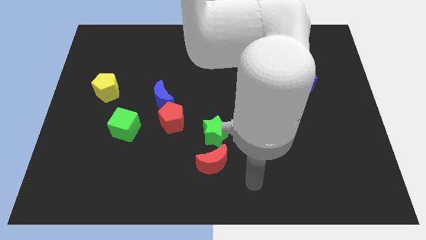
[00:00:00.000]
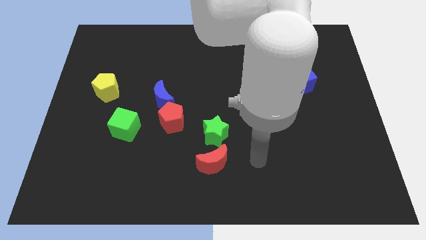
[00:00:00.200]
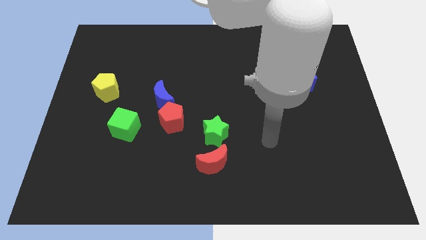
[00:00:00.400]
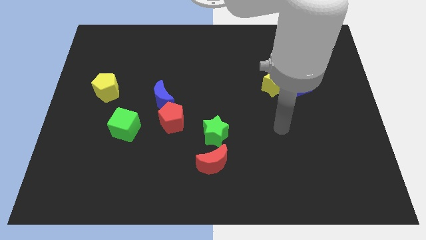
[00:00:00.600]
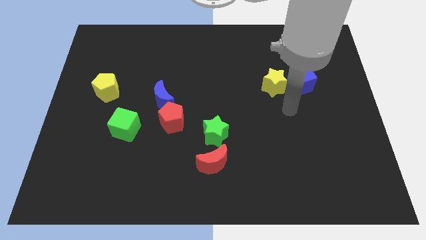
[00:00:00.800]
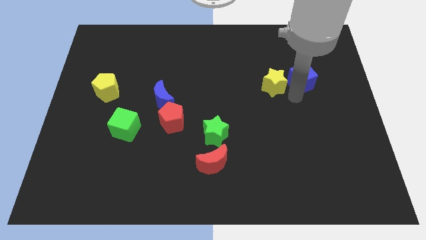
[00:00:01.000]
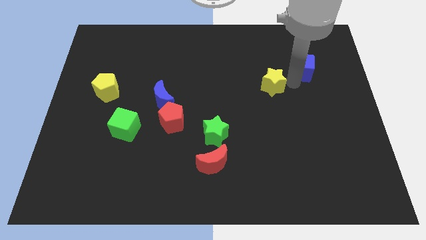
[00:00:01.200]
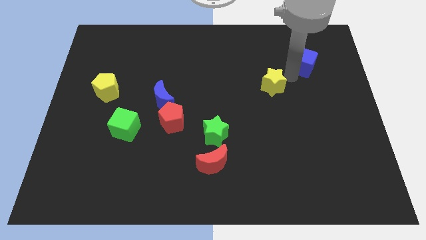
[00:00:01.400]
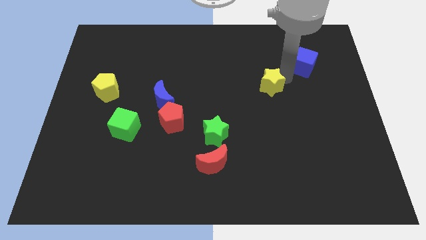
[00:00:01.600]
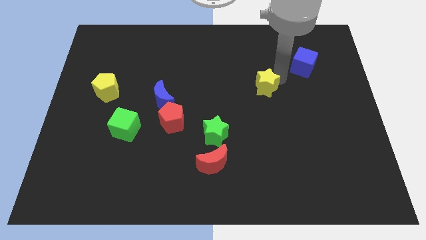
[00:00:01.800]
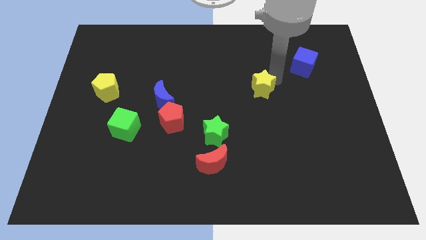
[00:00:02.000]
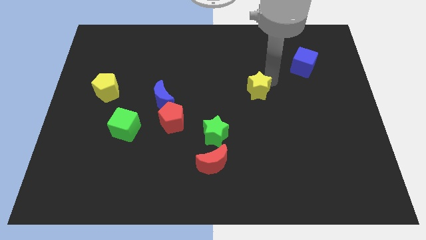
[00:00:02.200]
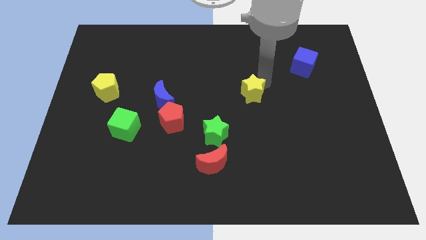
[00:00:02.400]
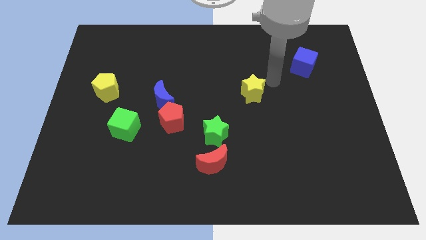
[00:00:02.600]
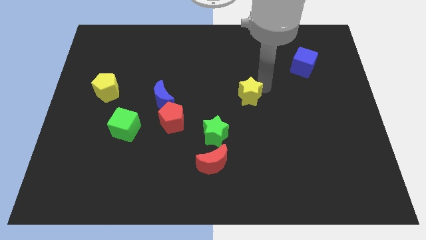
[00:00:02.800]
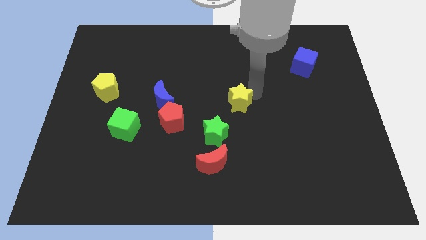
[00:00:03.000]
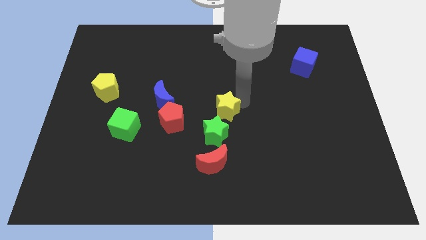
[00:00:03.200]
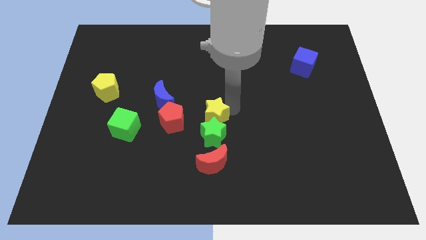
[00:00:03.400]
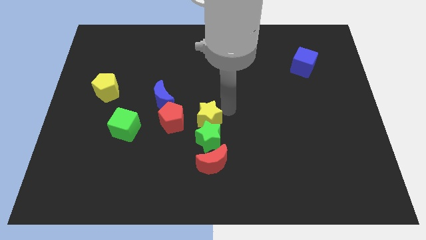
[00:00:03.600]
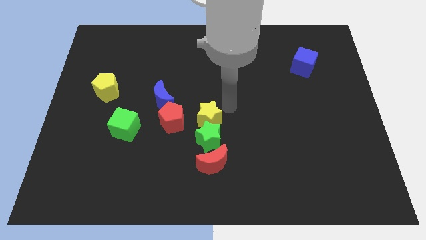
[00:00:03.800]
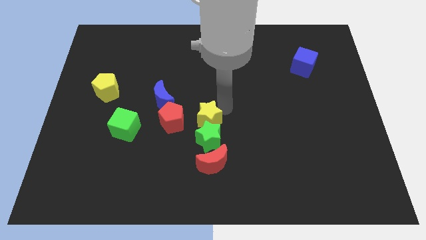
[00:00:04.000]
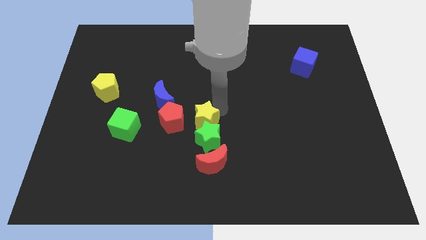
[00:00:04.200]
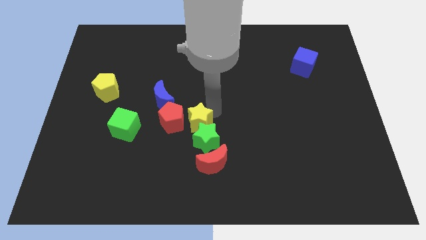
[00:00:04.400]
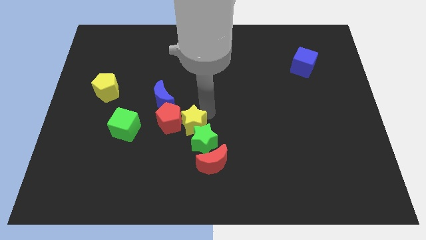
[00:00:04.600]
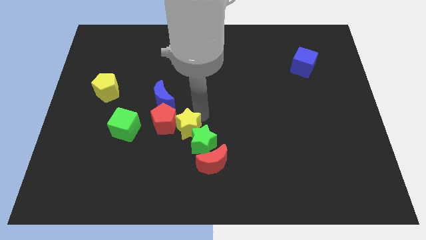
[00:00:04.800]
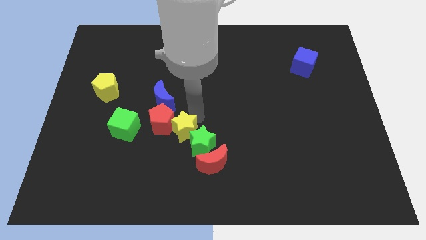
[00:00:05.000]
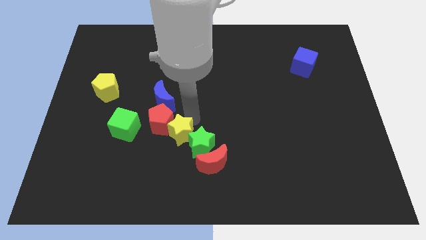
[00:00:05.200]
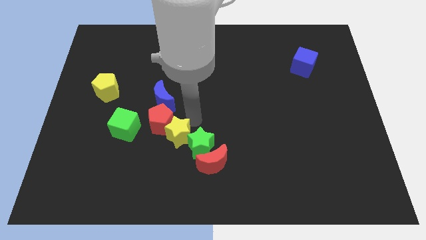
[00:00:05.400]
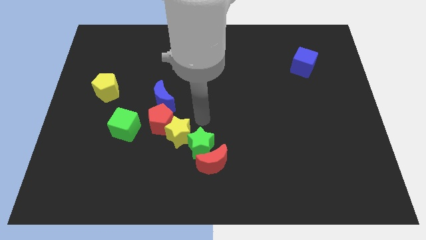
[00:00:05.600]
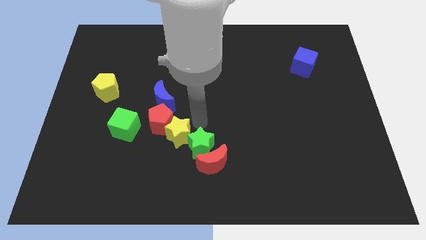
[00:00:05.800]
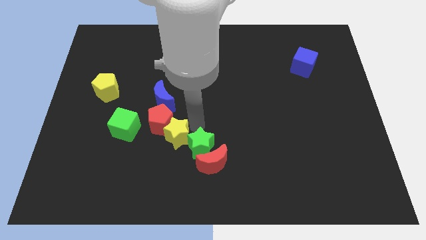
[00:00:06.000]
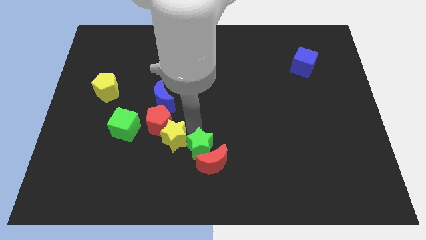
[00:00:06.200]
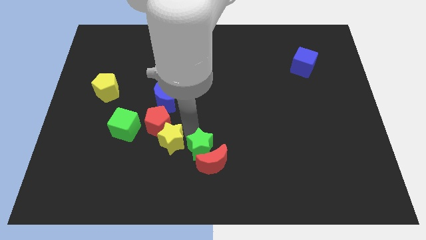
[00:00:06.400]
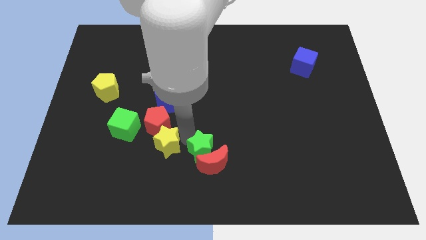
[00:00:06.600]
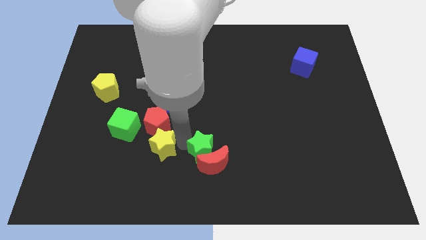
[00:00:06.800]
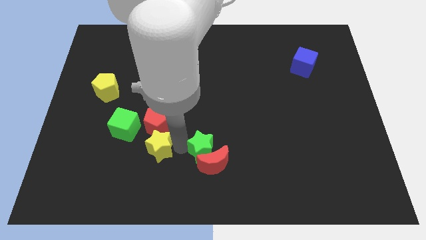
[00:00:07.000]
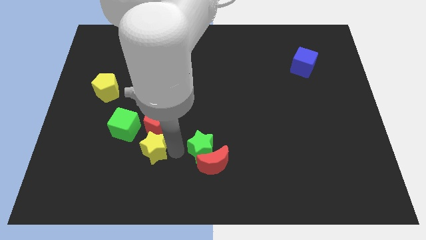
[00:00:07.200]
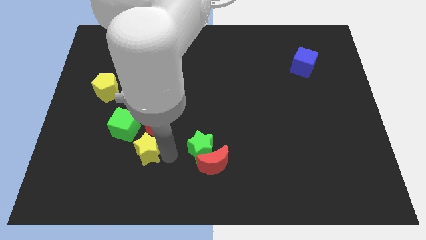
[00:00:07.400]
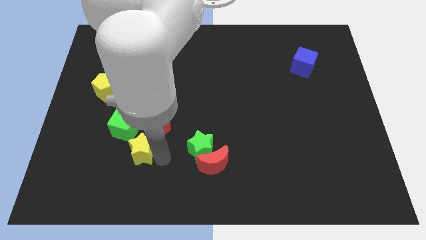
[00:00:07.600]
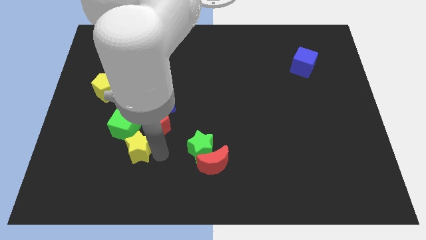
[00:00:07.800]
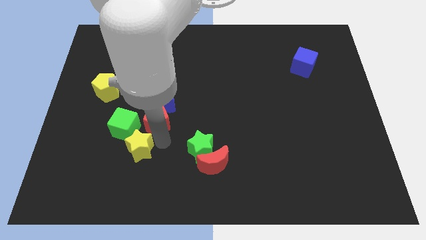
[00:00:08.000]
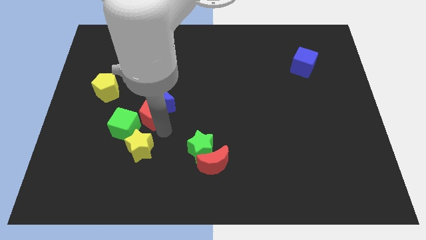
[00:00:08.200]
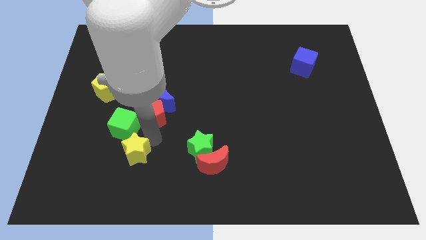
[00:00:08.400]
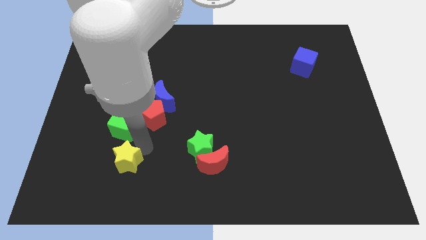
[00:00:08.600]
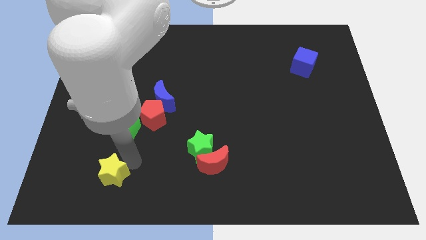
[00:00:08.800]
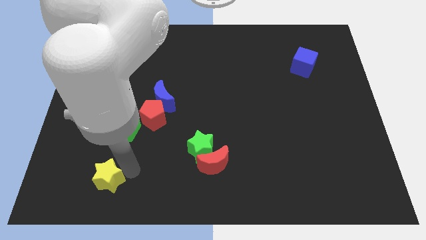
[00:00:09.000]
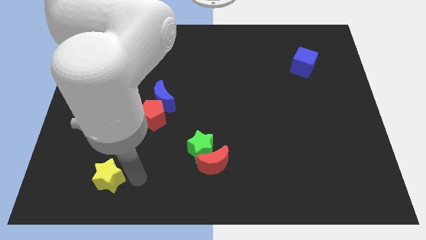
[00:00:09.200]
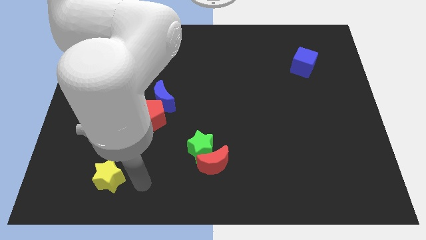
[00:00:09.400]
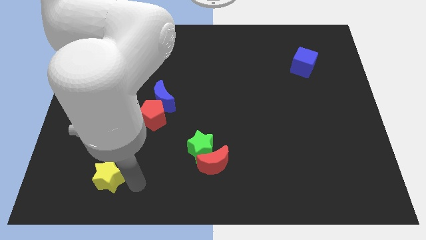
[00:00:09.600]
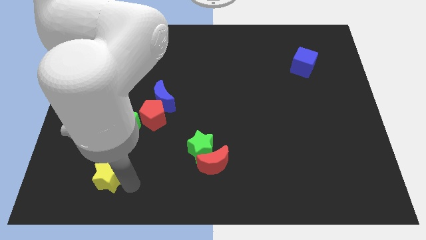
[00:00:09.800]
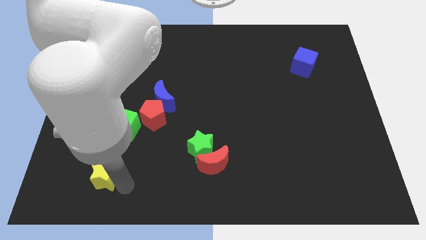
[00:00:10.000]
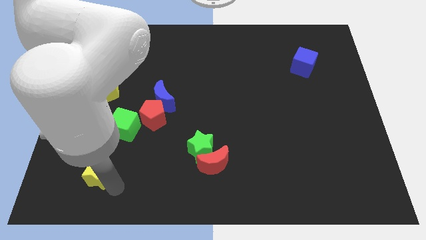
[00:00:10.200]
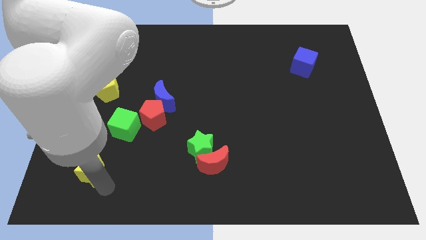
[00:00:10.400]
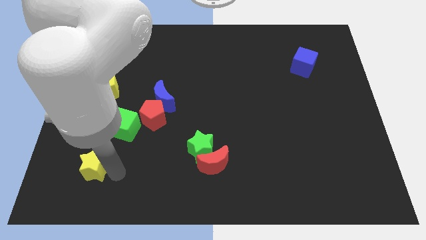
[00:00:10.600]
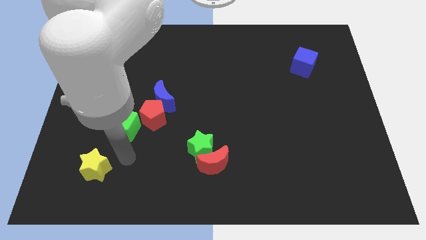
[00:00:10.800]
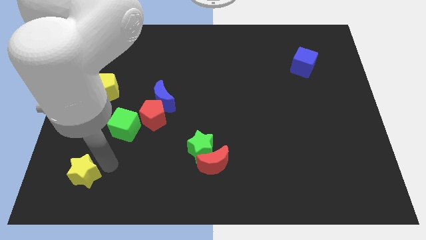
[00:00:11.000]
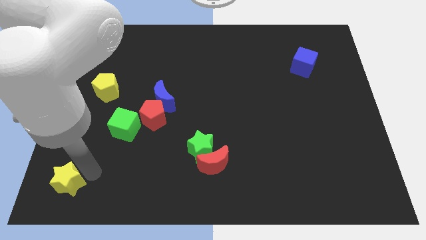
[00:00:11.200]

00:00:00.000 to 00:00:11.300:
move the yellow star to the lower left corner
